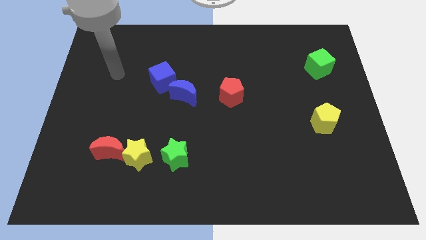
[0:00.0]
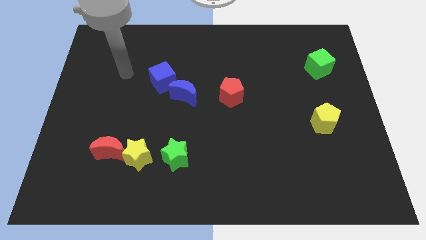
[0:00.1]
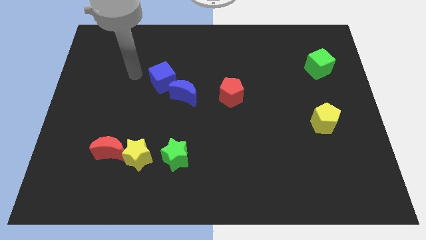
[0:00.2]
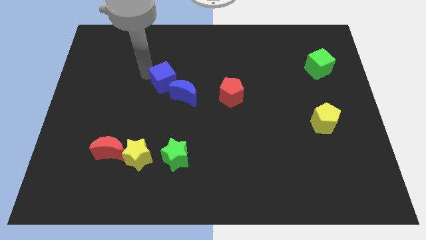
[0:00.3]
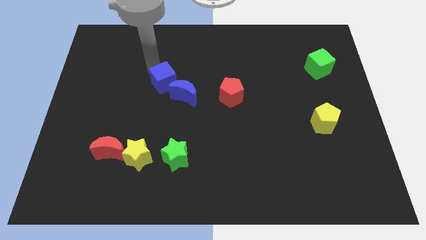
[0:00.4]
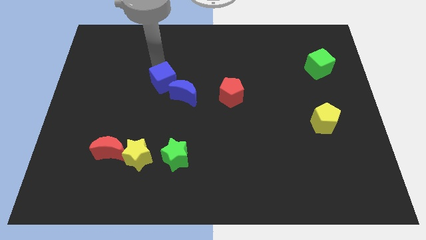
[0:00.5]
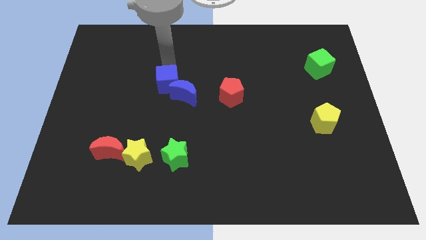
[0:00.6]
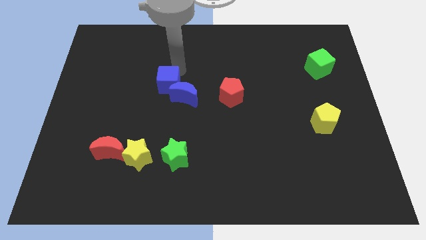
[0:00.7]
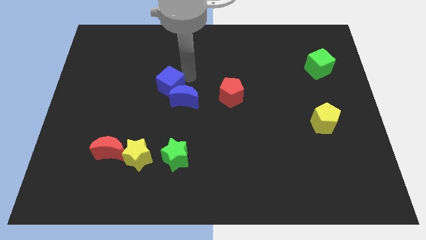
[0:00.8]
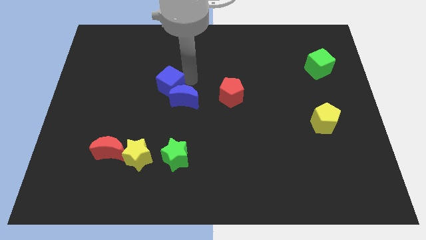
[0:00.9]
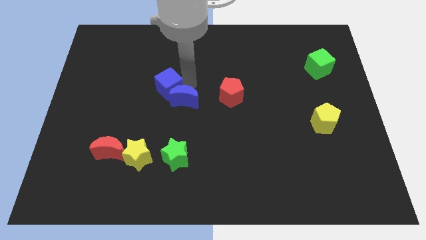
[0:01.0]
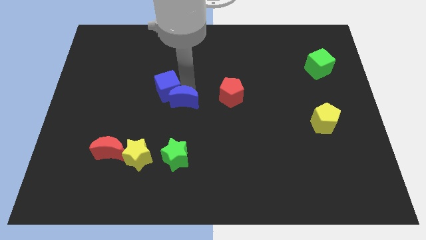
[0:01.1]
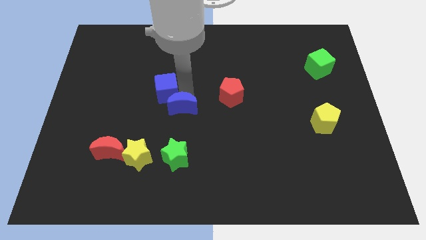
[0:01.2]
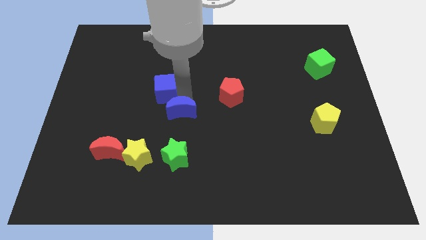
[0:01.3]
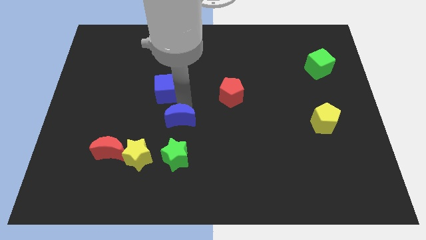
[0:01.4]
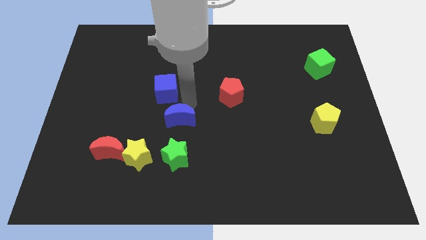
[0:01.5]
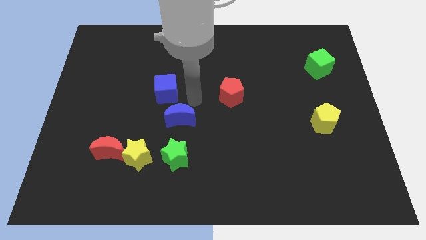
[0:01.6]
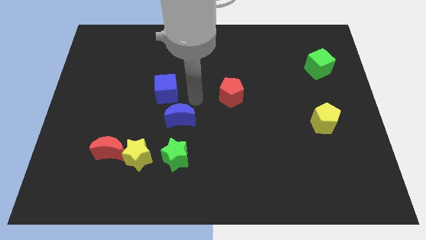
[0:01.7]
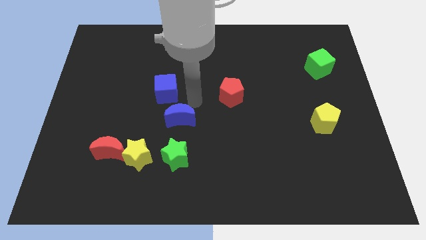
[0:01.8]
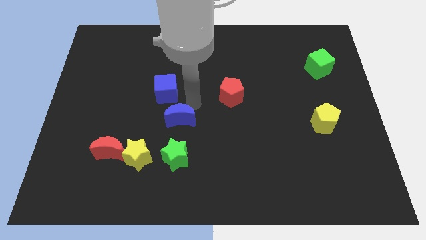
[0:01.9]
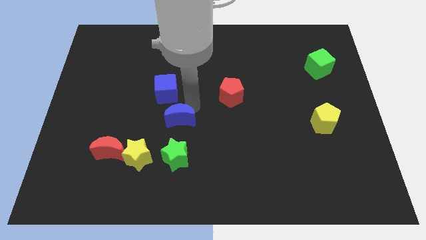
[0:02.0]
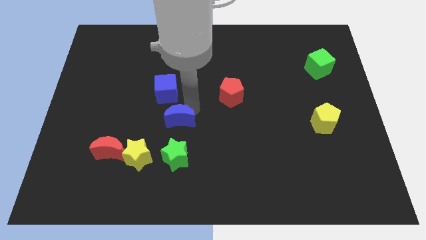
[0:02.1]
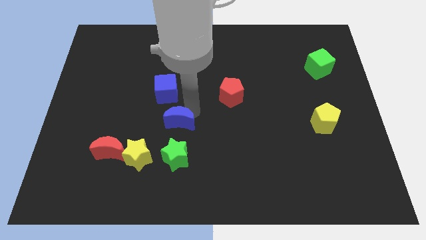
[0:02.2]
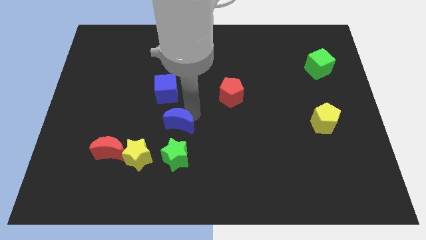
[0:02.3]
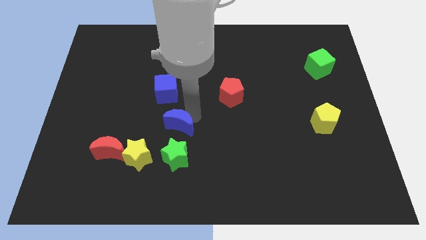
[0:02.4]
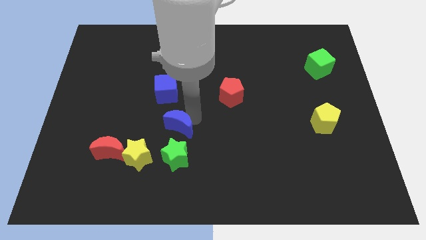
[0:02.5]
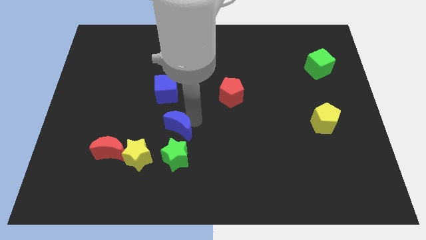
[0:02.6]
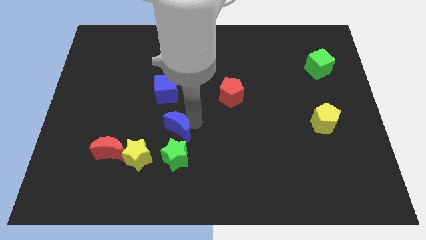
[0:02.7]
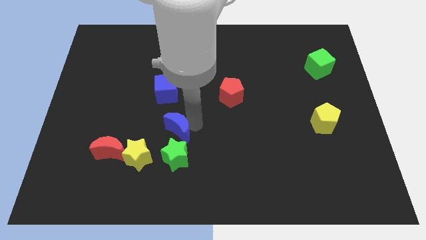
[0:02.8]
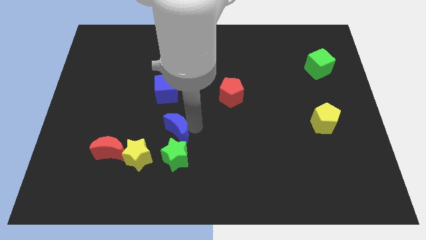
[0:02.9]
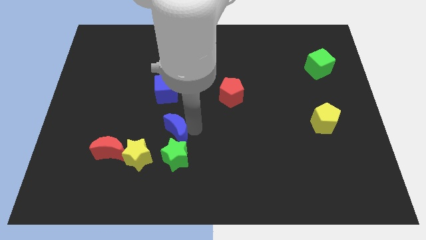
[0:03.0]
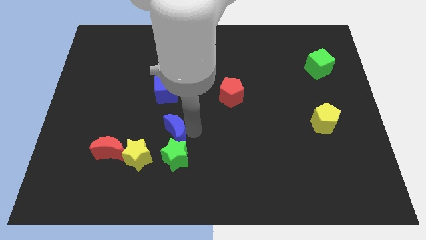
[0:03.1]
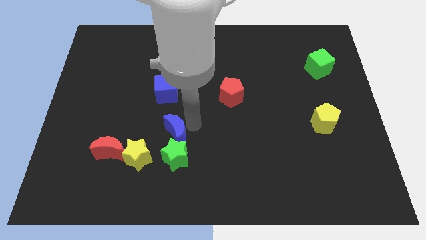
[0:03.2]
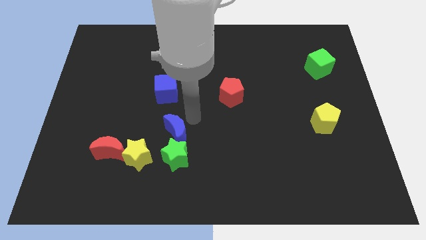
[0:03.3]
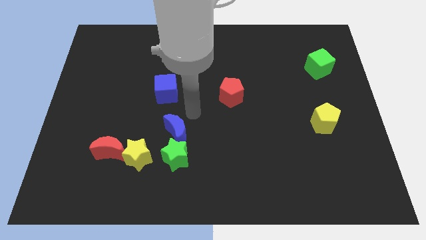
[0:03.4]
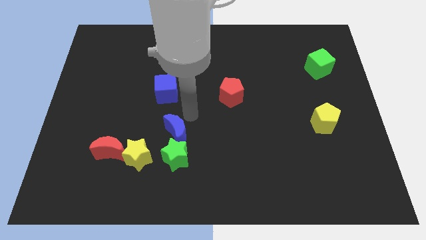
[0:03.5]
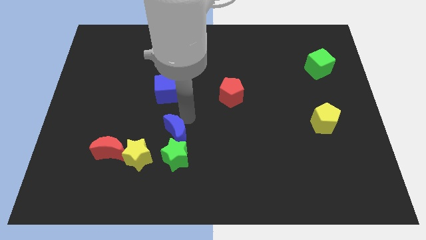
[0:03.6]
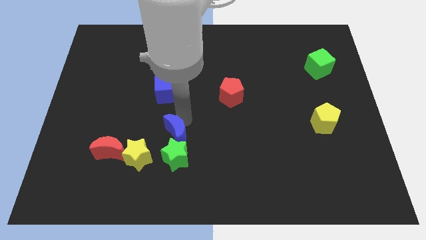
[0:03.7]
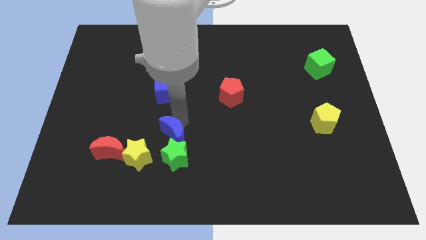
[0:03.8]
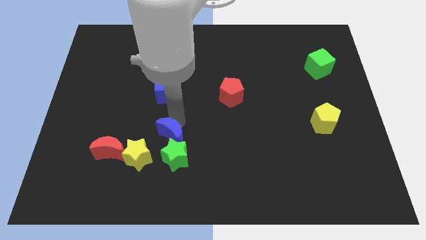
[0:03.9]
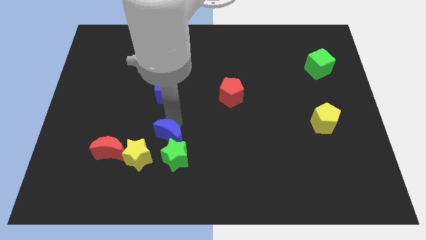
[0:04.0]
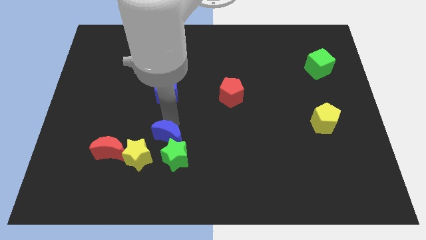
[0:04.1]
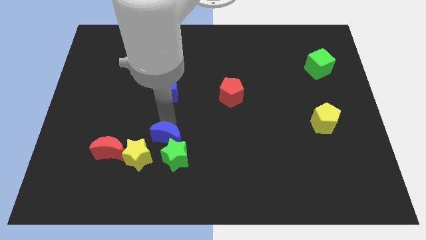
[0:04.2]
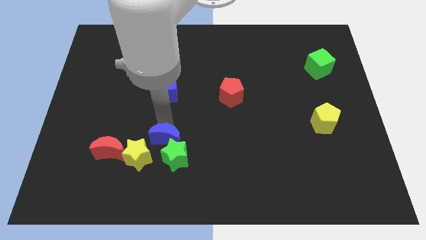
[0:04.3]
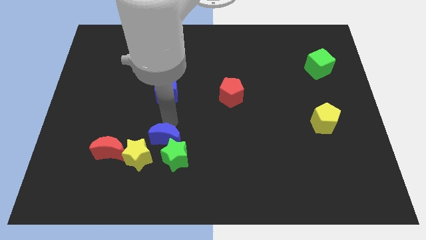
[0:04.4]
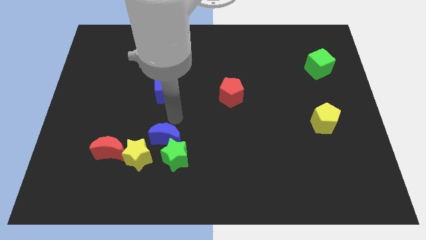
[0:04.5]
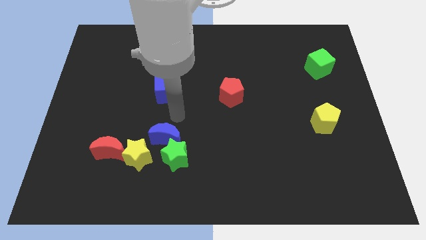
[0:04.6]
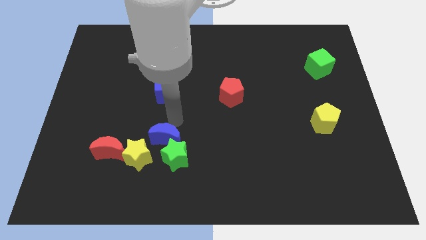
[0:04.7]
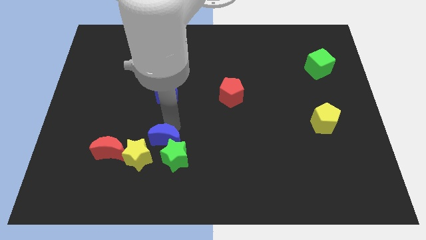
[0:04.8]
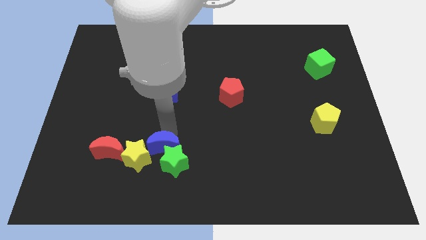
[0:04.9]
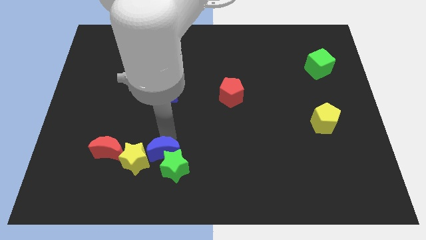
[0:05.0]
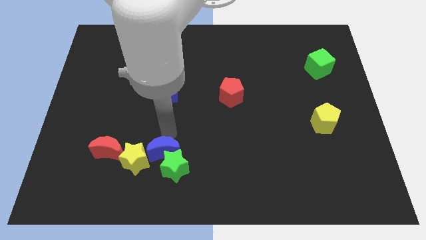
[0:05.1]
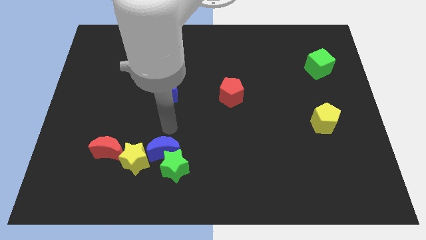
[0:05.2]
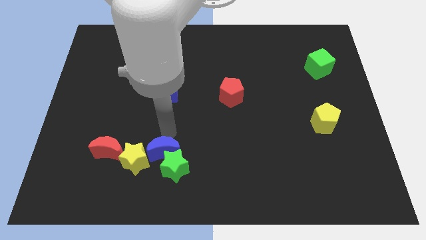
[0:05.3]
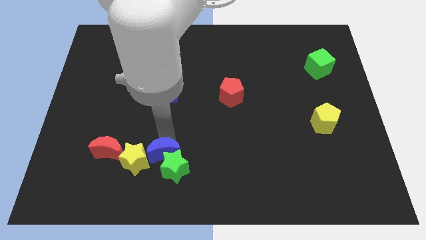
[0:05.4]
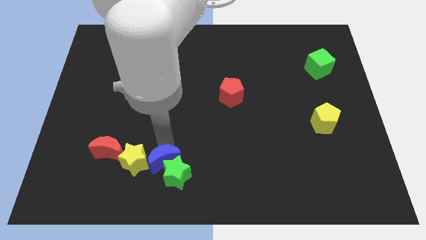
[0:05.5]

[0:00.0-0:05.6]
put the blue moon to the bottom right side of the yellow star
